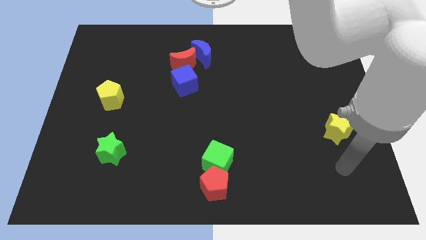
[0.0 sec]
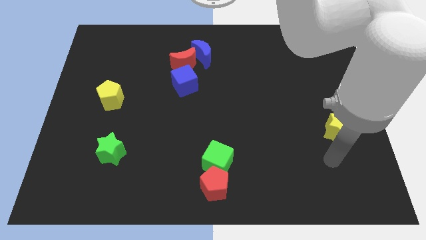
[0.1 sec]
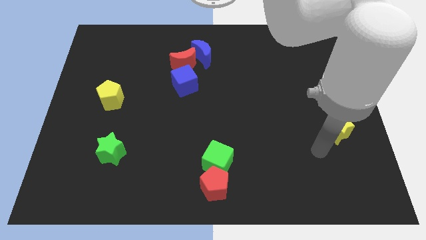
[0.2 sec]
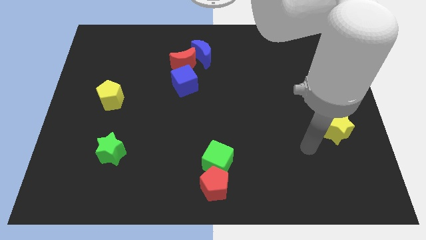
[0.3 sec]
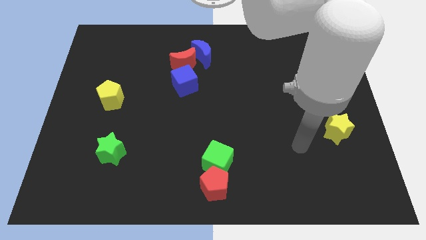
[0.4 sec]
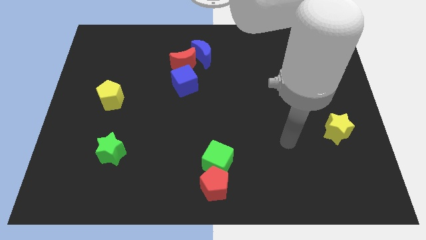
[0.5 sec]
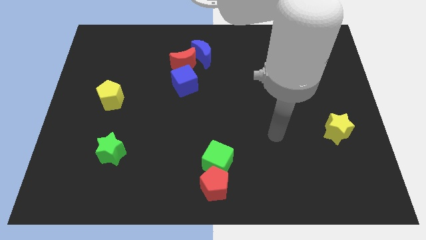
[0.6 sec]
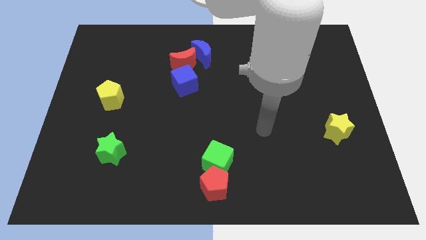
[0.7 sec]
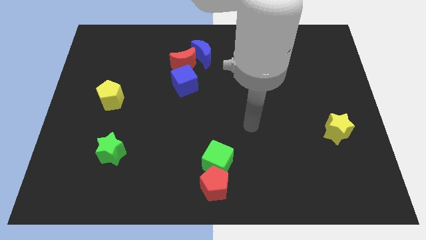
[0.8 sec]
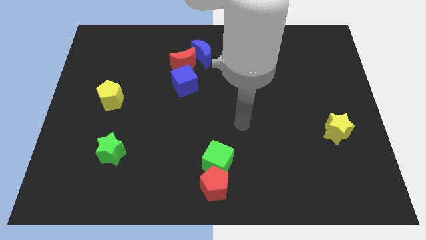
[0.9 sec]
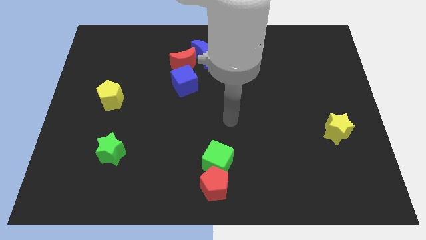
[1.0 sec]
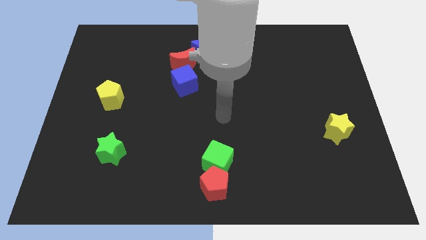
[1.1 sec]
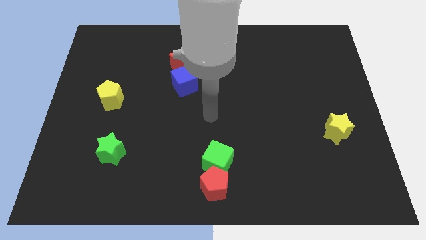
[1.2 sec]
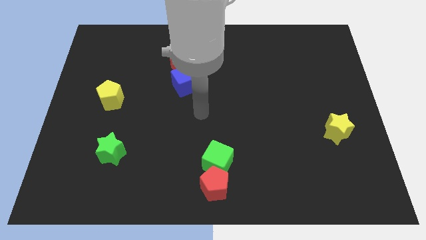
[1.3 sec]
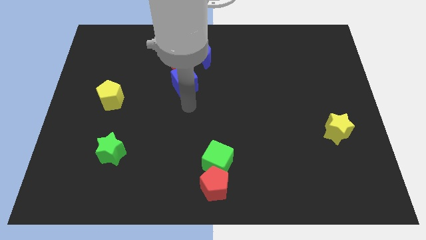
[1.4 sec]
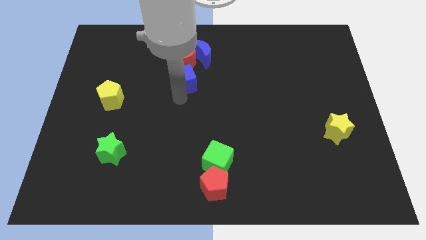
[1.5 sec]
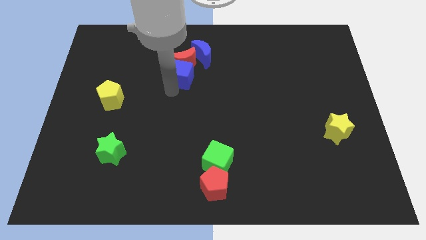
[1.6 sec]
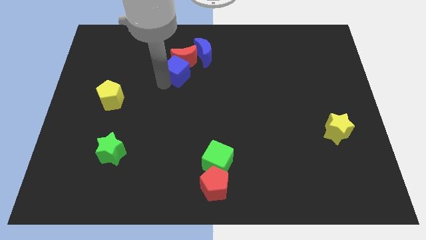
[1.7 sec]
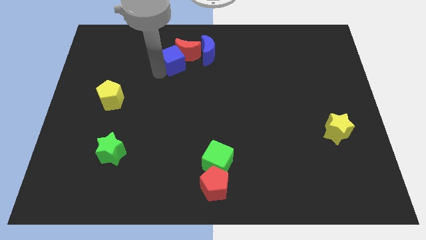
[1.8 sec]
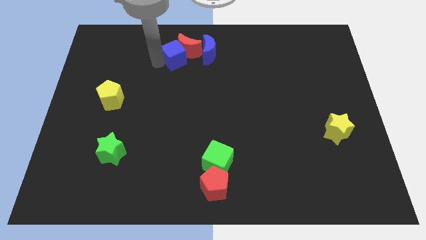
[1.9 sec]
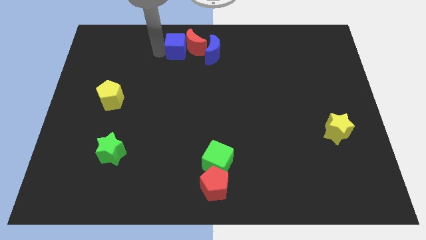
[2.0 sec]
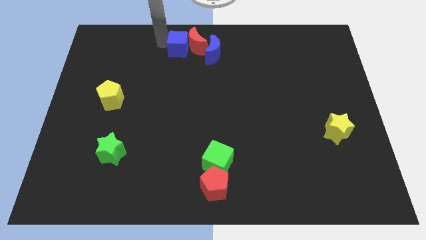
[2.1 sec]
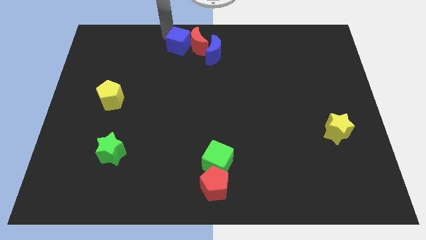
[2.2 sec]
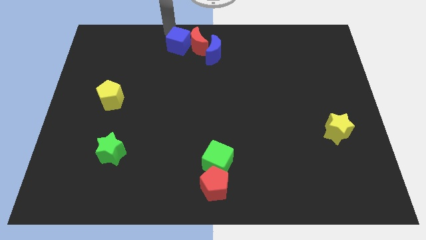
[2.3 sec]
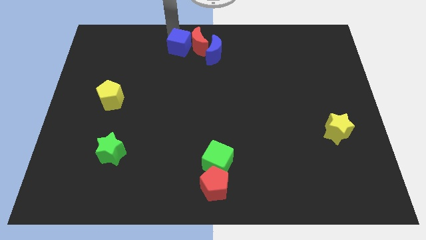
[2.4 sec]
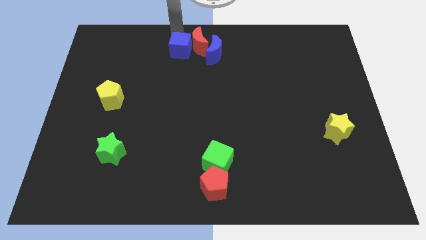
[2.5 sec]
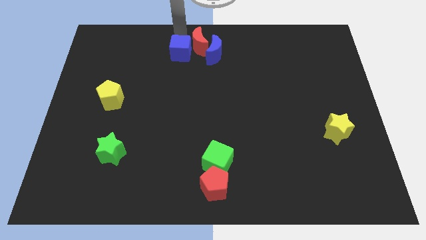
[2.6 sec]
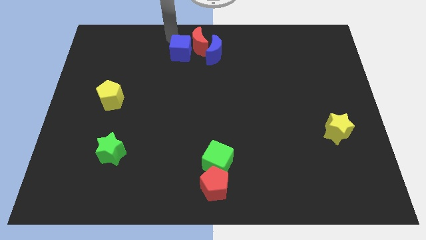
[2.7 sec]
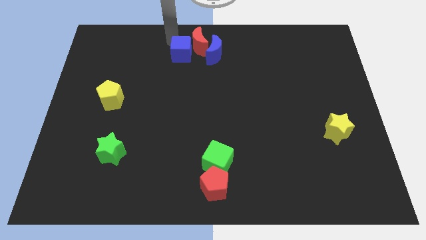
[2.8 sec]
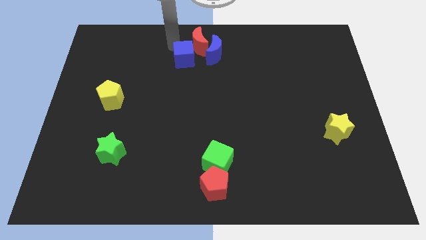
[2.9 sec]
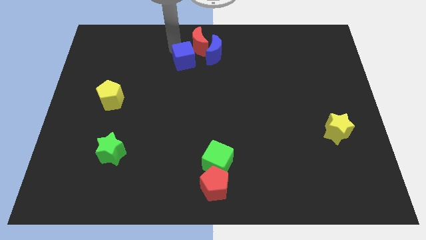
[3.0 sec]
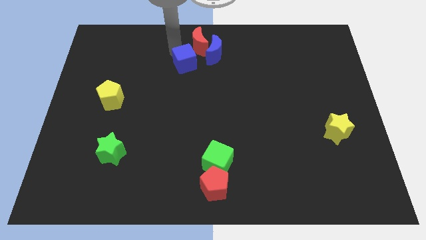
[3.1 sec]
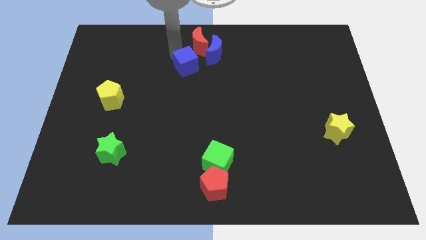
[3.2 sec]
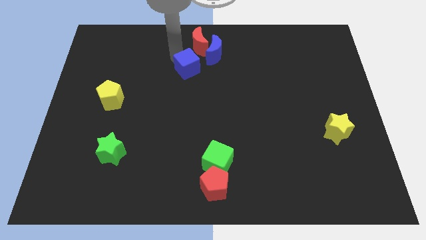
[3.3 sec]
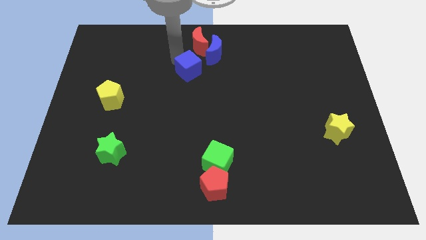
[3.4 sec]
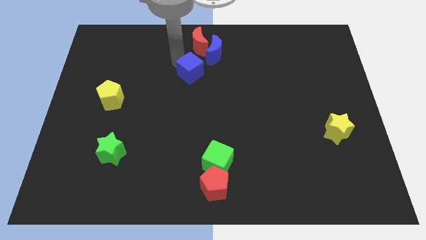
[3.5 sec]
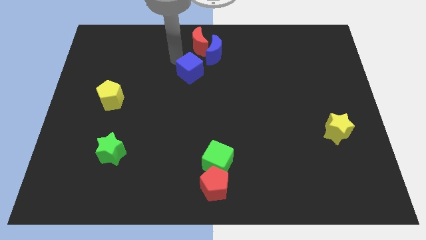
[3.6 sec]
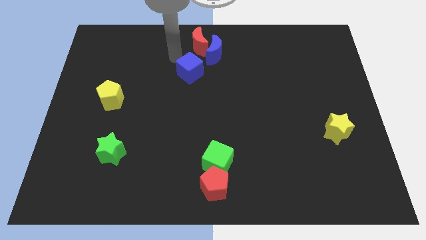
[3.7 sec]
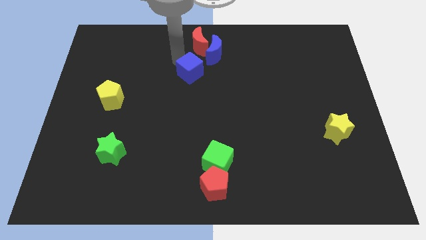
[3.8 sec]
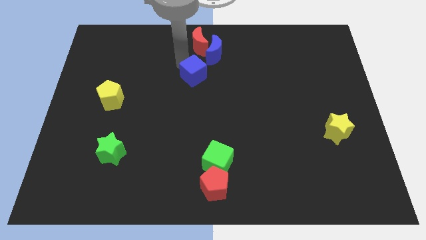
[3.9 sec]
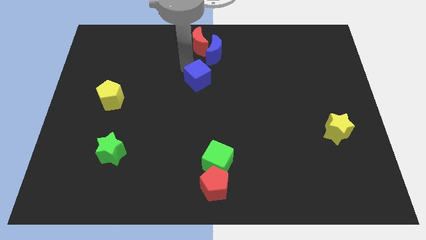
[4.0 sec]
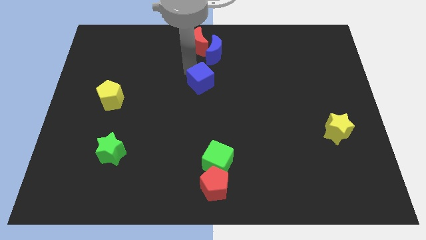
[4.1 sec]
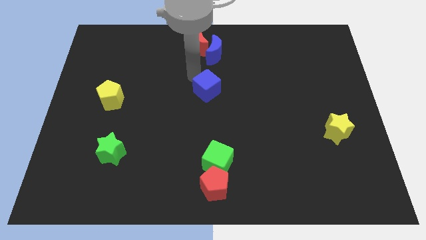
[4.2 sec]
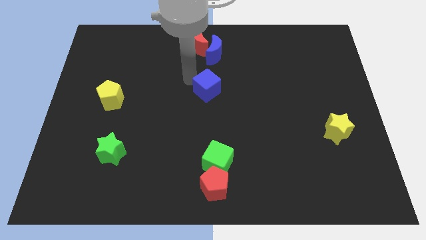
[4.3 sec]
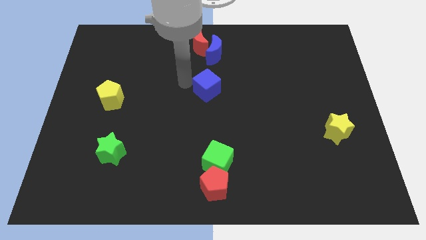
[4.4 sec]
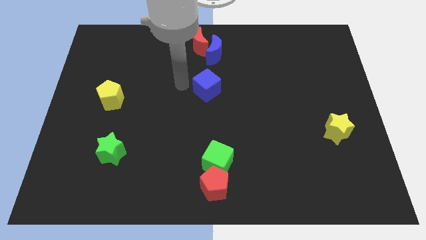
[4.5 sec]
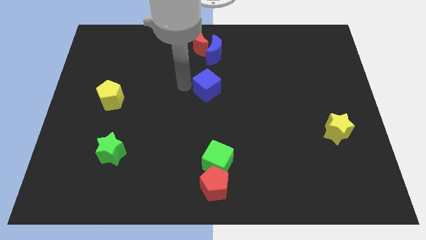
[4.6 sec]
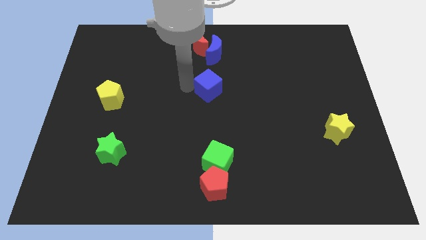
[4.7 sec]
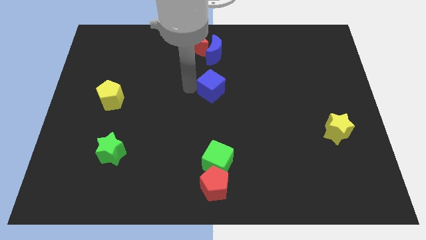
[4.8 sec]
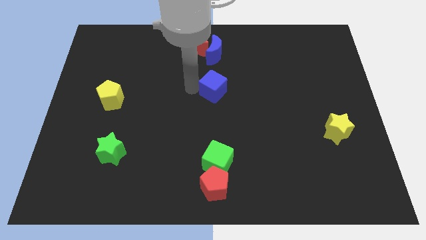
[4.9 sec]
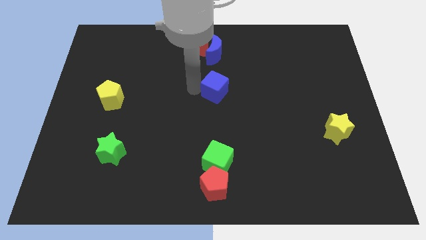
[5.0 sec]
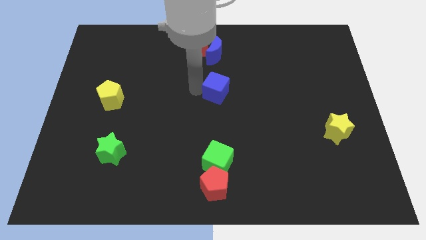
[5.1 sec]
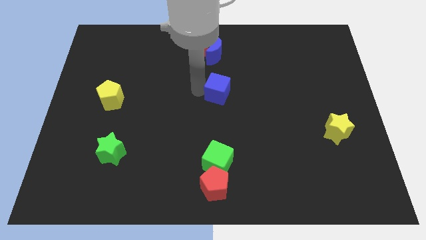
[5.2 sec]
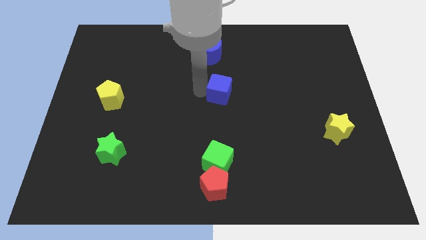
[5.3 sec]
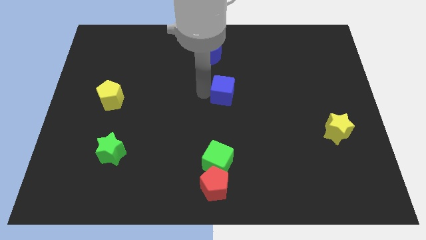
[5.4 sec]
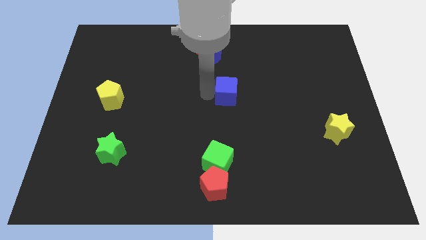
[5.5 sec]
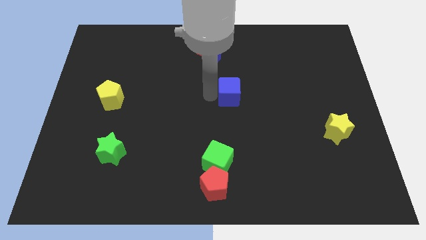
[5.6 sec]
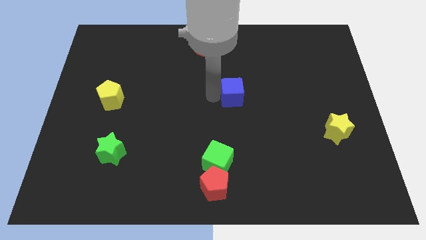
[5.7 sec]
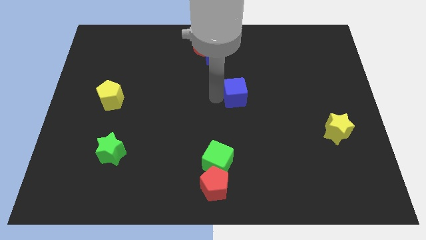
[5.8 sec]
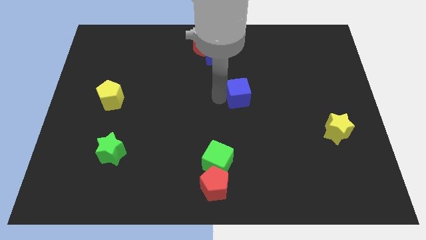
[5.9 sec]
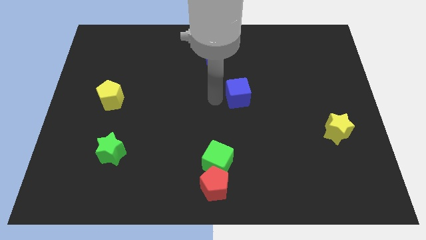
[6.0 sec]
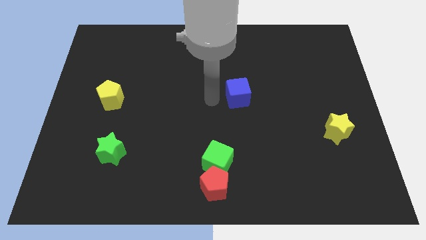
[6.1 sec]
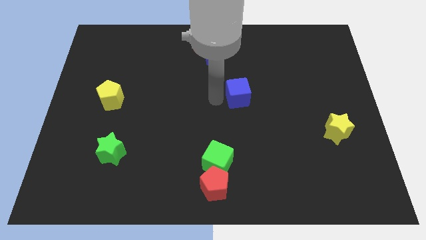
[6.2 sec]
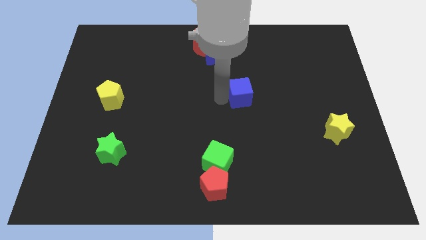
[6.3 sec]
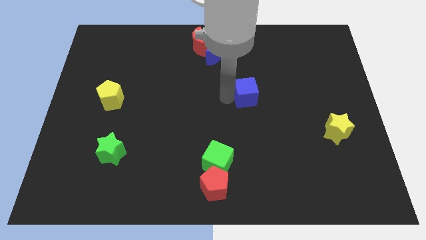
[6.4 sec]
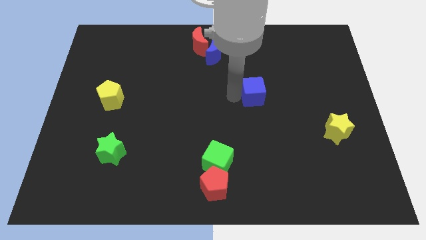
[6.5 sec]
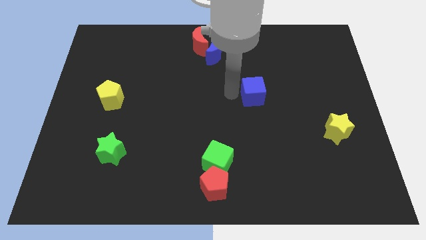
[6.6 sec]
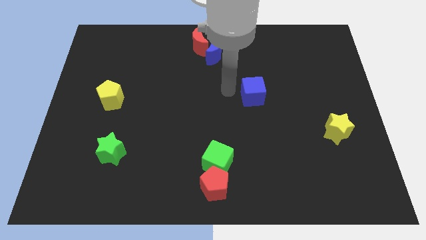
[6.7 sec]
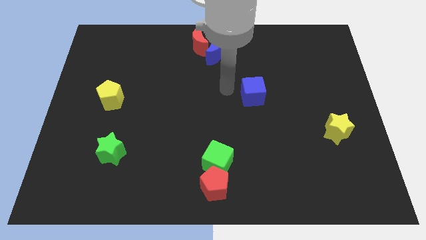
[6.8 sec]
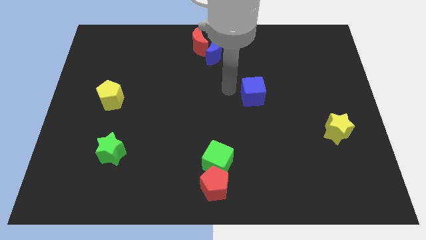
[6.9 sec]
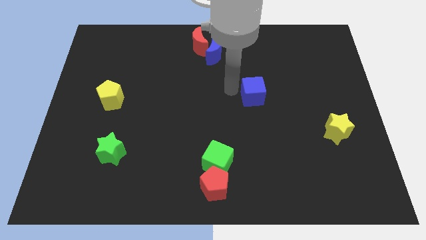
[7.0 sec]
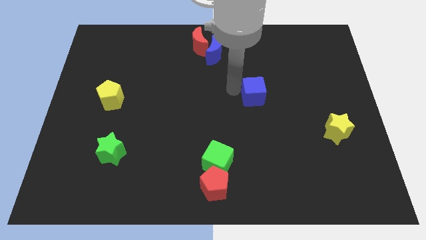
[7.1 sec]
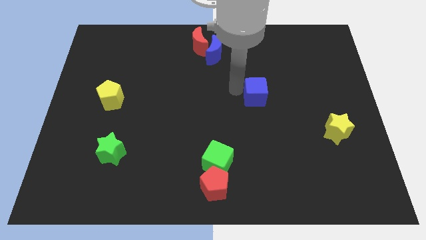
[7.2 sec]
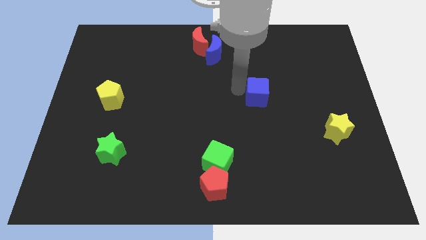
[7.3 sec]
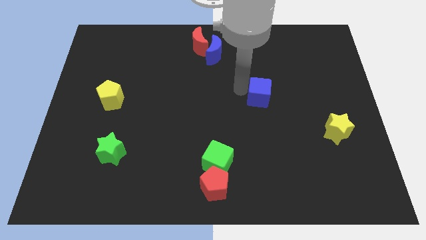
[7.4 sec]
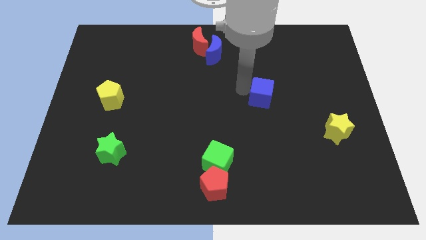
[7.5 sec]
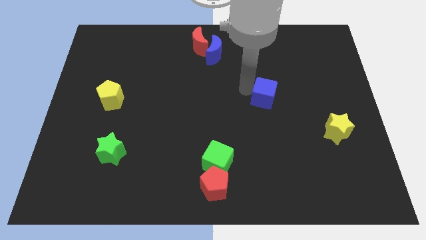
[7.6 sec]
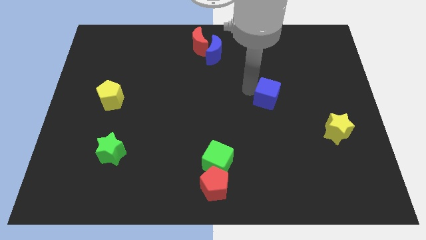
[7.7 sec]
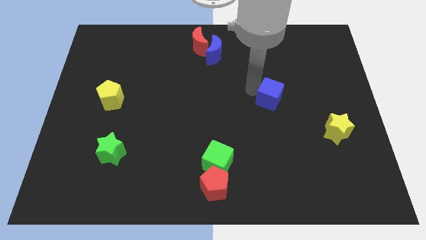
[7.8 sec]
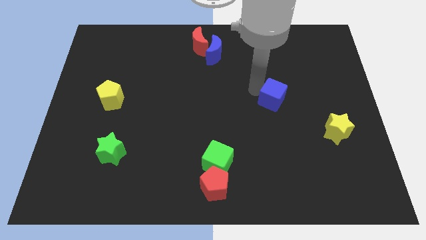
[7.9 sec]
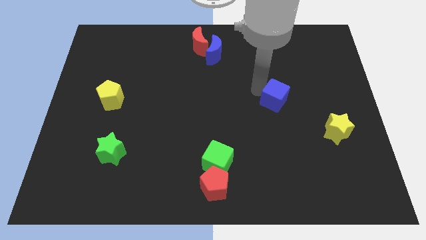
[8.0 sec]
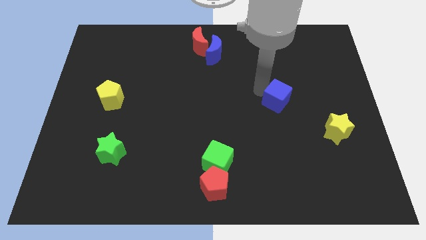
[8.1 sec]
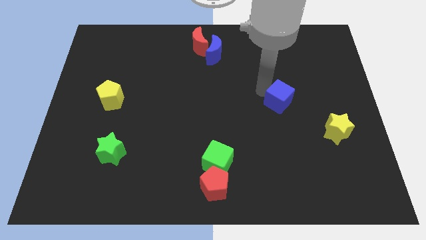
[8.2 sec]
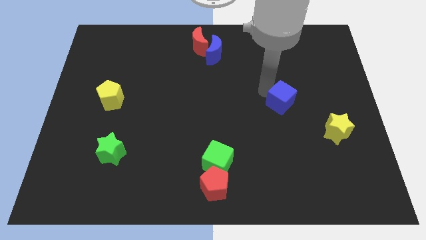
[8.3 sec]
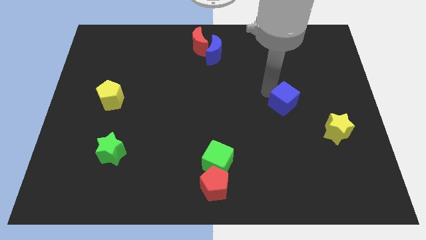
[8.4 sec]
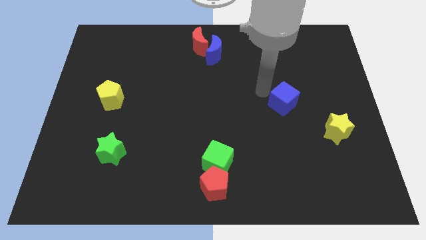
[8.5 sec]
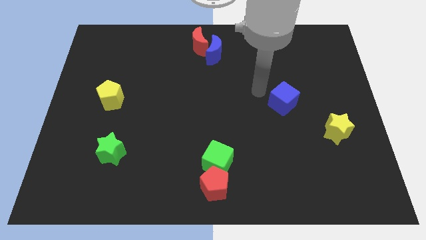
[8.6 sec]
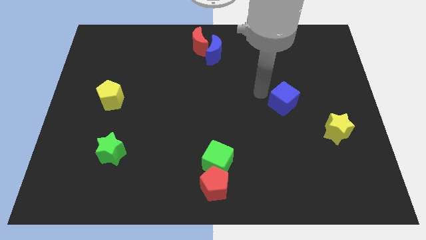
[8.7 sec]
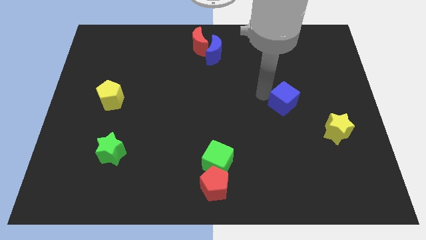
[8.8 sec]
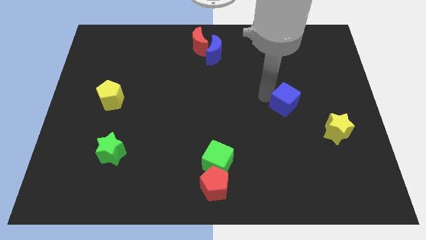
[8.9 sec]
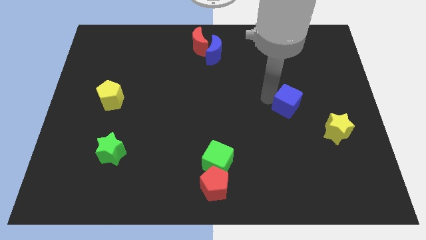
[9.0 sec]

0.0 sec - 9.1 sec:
put the blue cube to the top left of the yellow star
